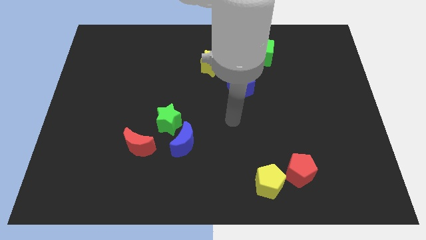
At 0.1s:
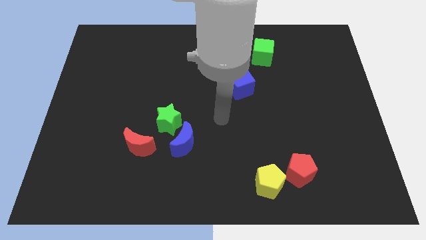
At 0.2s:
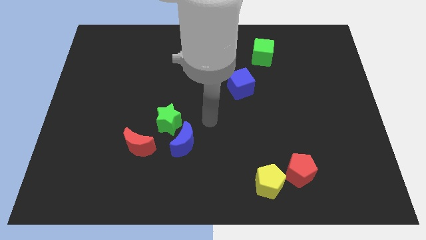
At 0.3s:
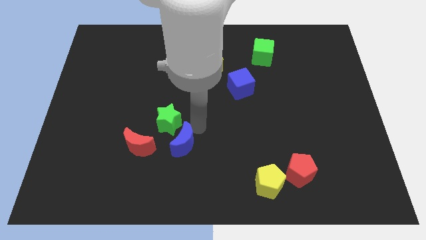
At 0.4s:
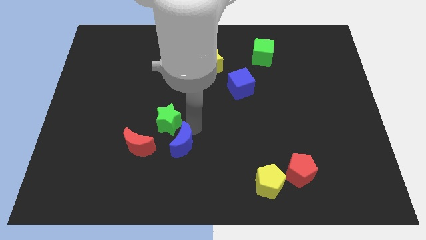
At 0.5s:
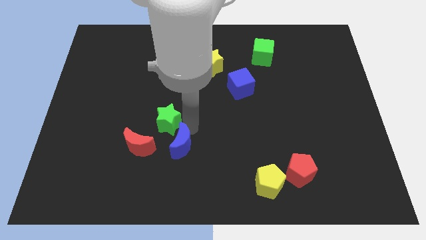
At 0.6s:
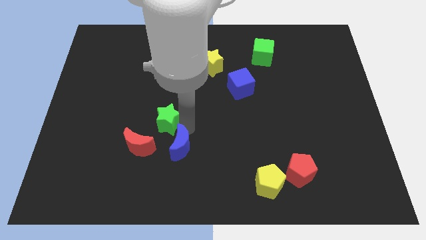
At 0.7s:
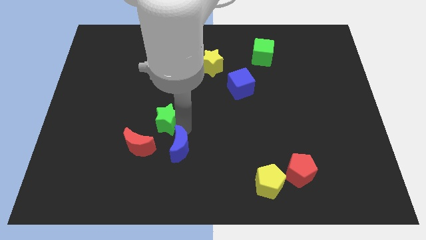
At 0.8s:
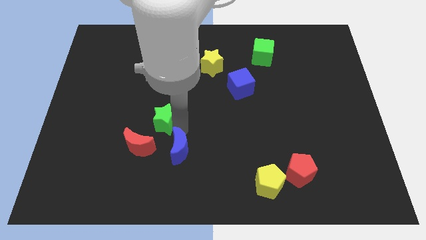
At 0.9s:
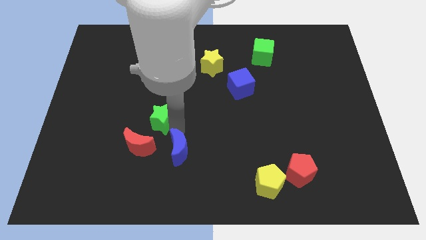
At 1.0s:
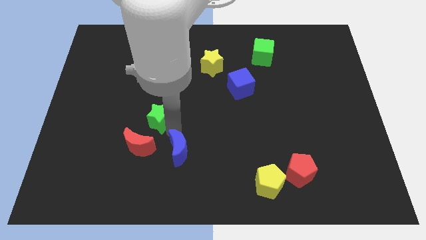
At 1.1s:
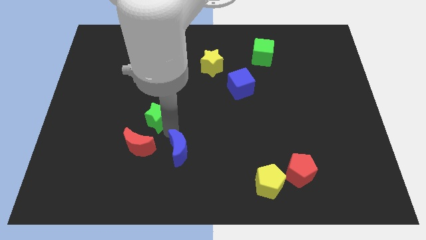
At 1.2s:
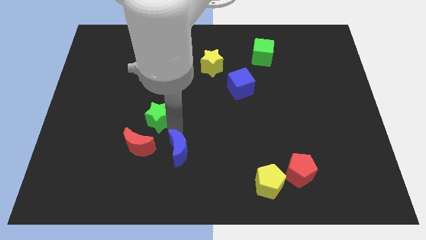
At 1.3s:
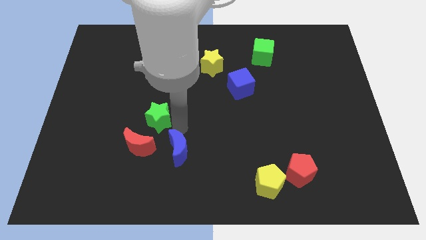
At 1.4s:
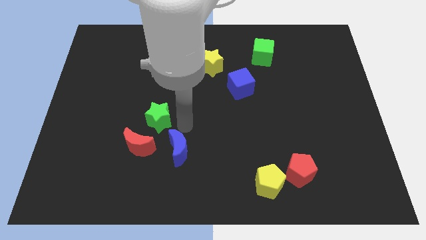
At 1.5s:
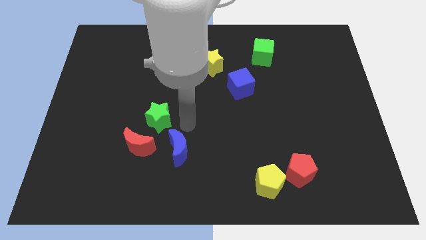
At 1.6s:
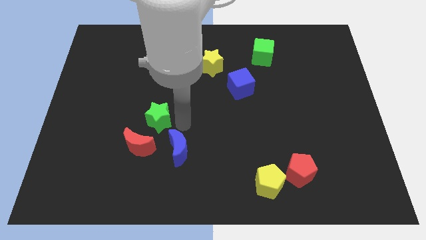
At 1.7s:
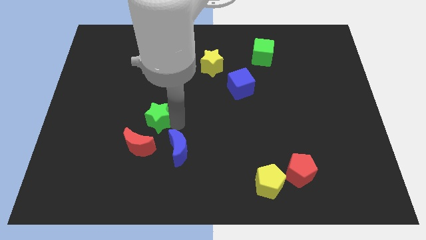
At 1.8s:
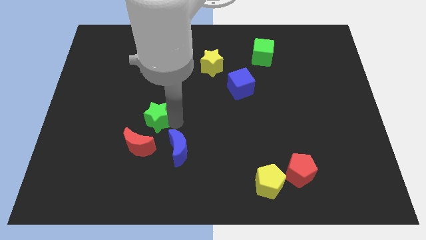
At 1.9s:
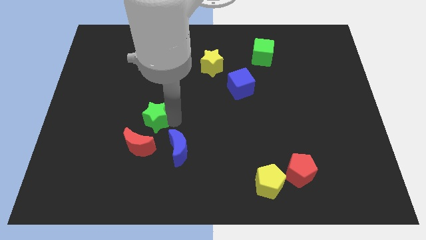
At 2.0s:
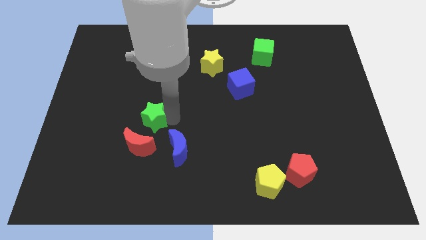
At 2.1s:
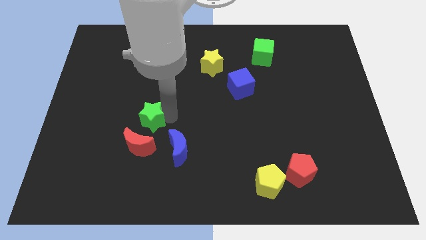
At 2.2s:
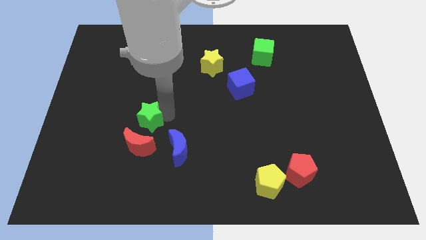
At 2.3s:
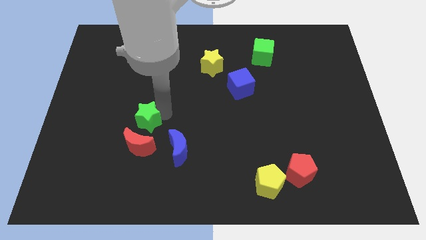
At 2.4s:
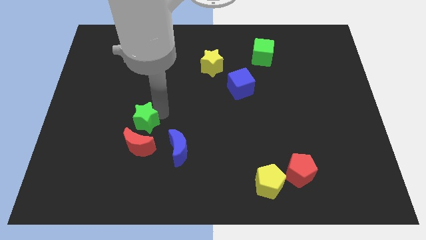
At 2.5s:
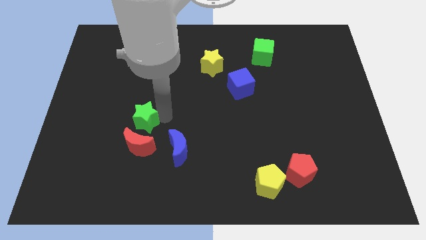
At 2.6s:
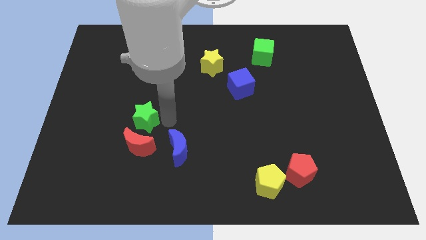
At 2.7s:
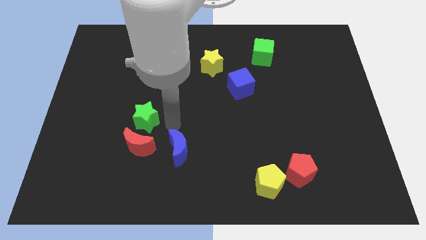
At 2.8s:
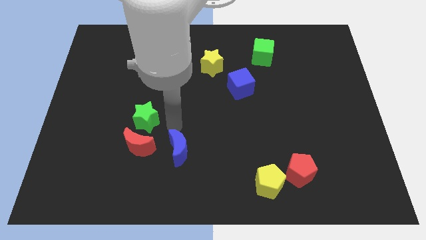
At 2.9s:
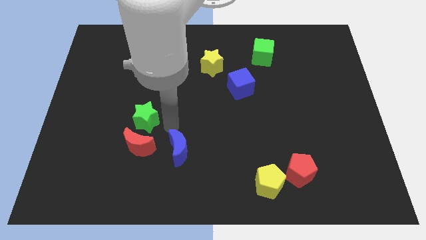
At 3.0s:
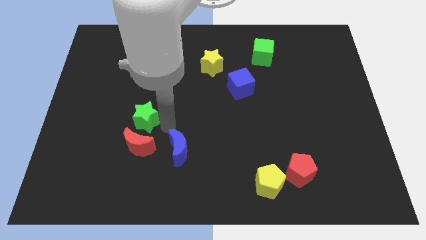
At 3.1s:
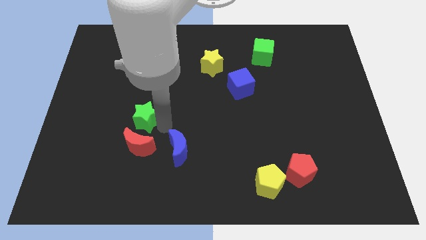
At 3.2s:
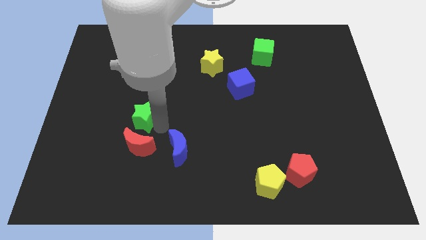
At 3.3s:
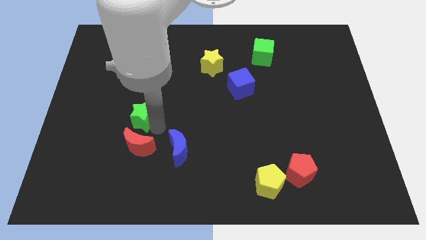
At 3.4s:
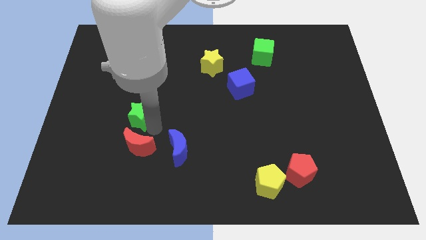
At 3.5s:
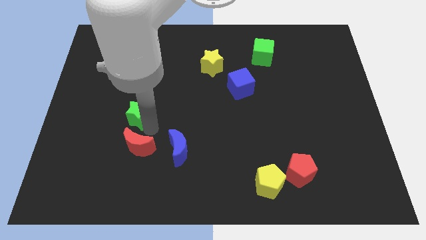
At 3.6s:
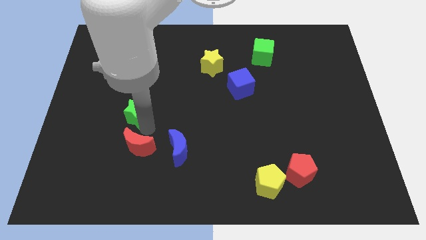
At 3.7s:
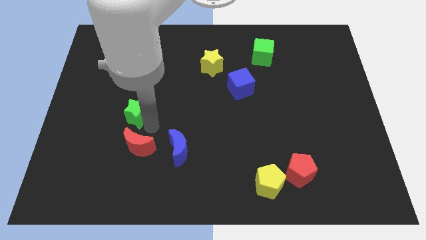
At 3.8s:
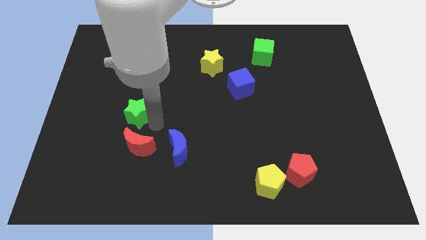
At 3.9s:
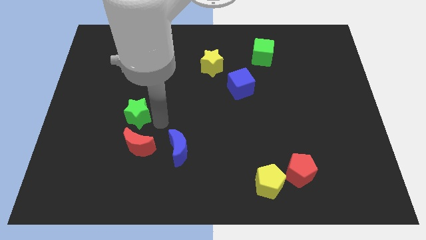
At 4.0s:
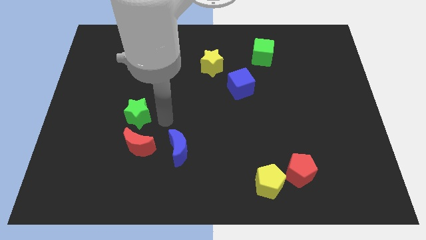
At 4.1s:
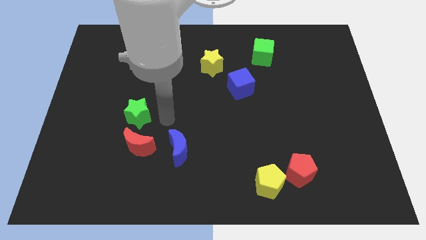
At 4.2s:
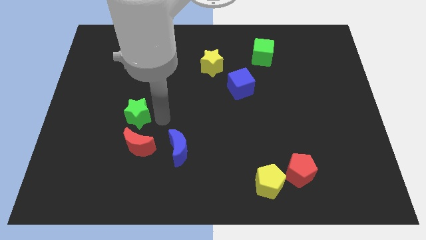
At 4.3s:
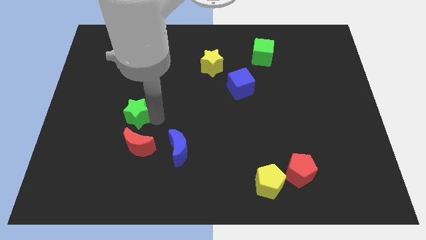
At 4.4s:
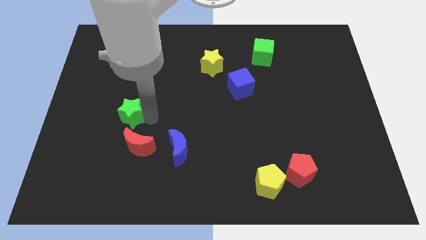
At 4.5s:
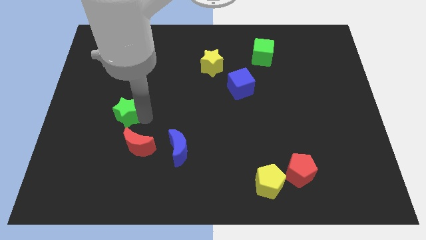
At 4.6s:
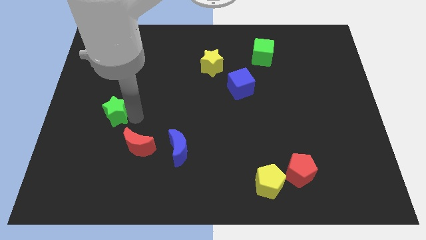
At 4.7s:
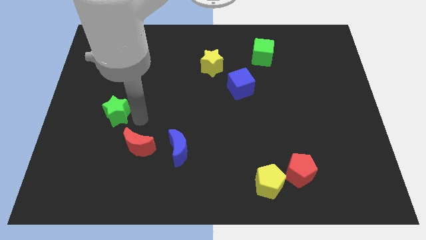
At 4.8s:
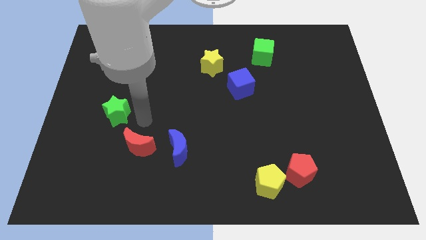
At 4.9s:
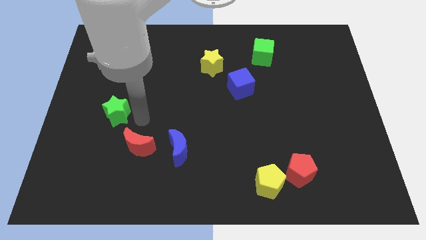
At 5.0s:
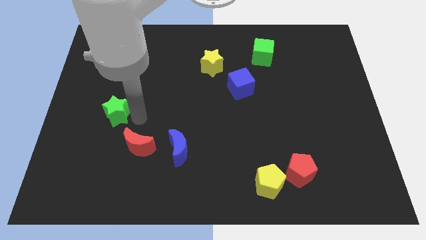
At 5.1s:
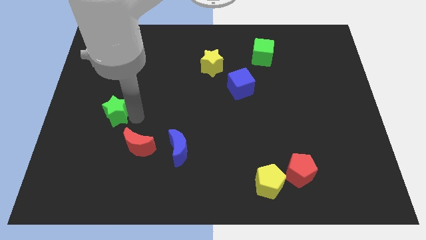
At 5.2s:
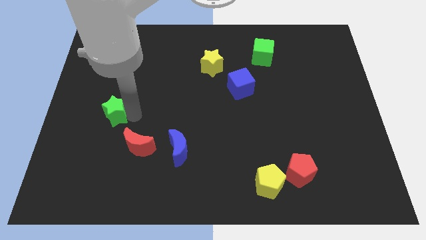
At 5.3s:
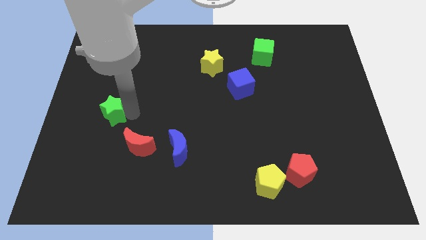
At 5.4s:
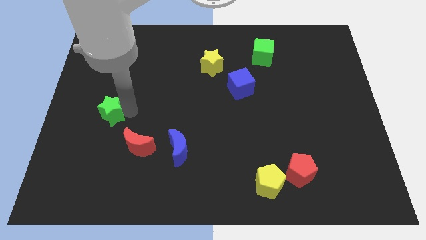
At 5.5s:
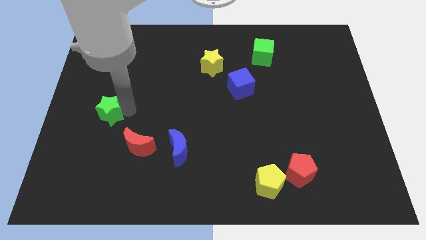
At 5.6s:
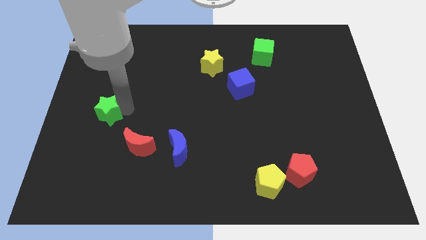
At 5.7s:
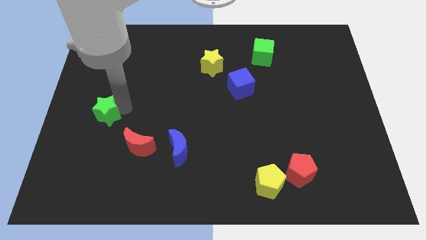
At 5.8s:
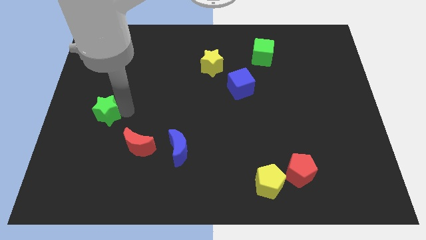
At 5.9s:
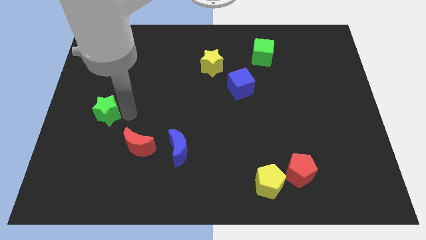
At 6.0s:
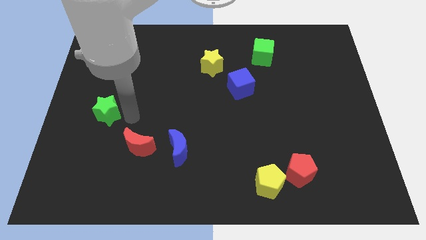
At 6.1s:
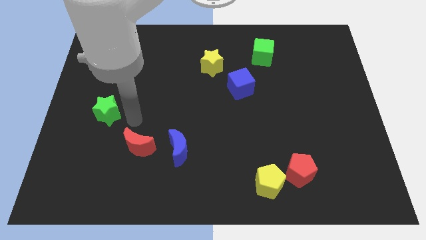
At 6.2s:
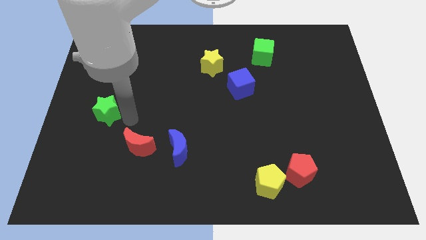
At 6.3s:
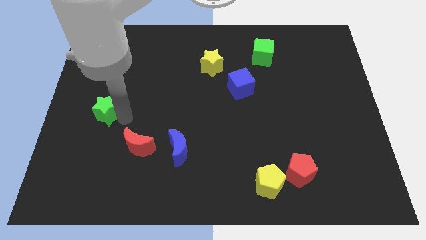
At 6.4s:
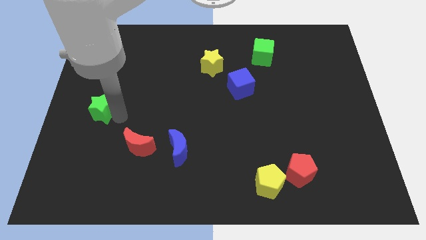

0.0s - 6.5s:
push the green star to the center left

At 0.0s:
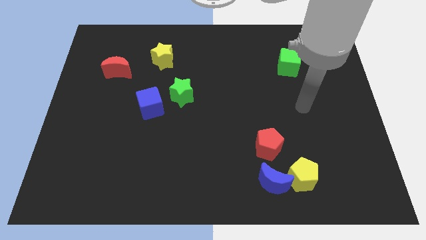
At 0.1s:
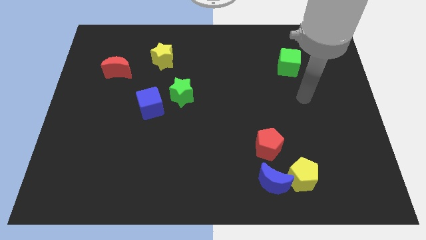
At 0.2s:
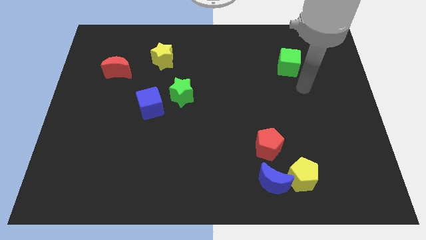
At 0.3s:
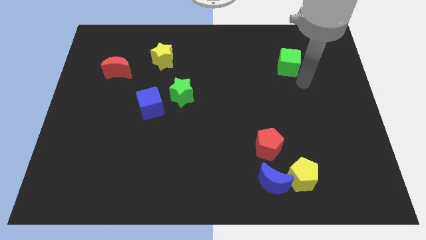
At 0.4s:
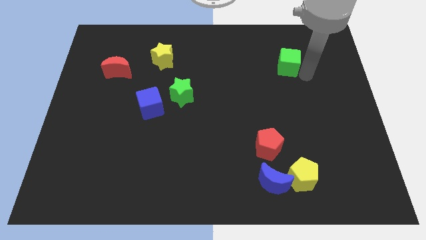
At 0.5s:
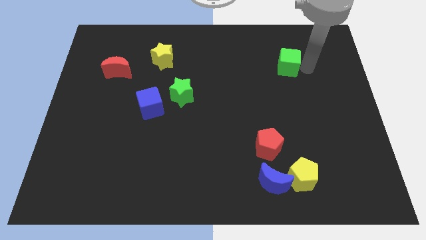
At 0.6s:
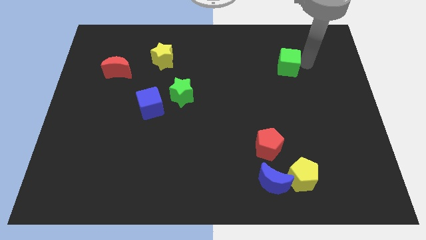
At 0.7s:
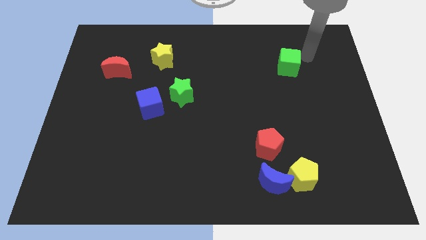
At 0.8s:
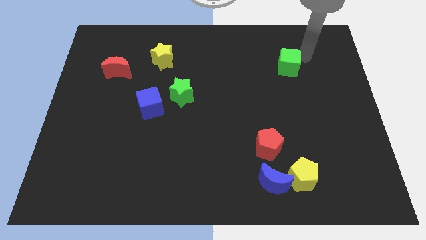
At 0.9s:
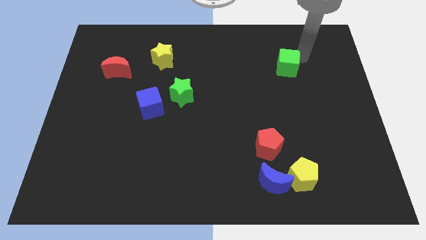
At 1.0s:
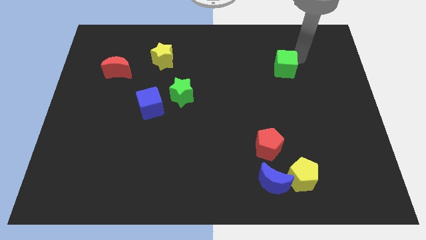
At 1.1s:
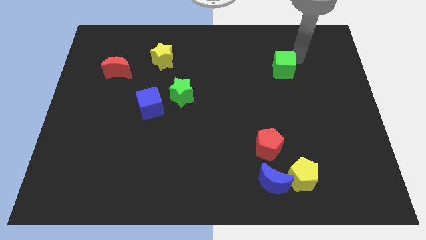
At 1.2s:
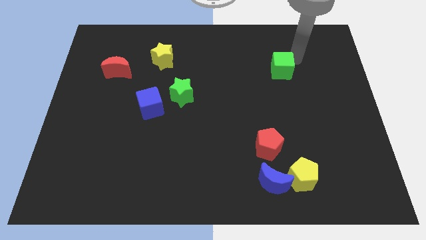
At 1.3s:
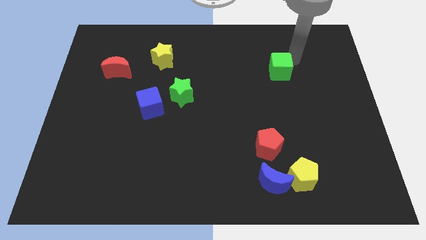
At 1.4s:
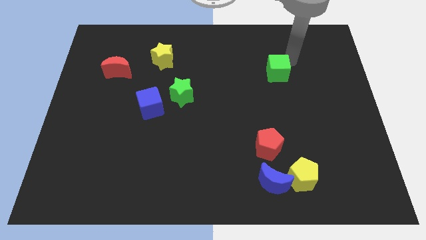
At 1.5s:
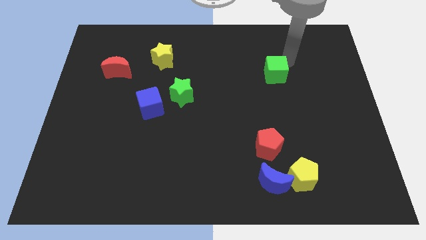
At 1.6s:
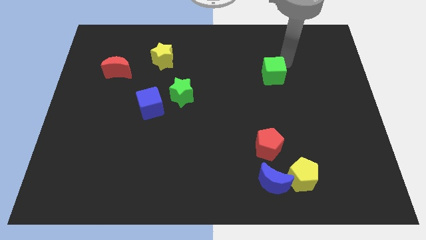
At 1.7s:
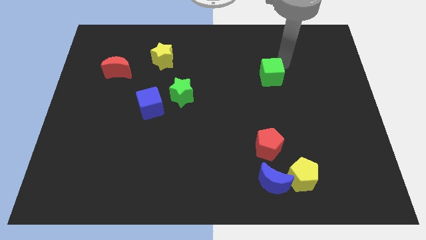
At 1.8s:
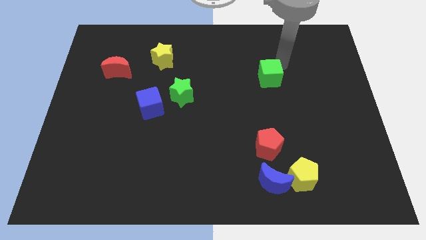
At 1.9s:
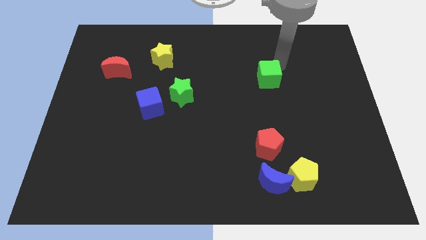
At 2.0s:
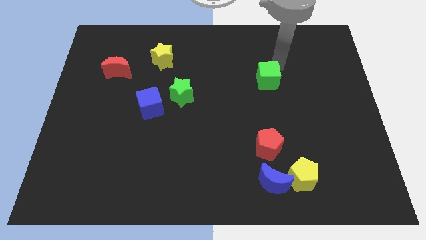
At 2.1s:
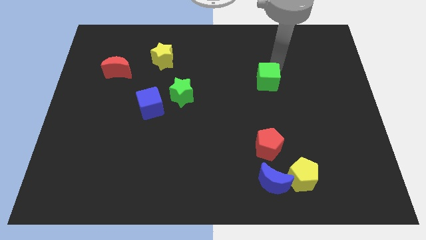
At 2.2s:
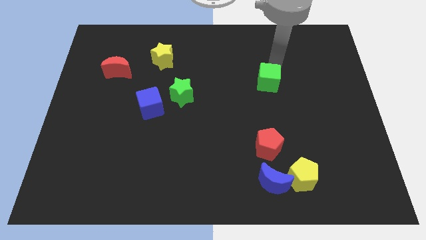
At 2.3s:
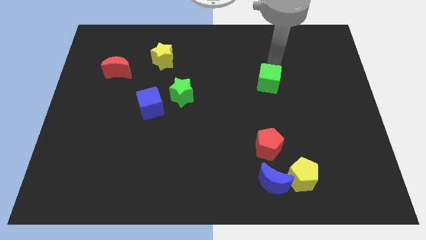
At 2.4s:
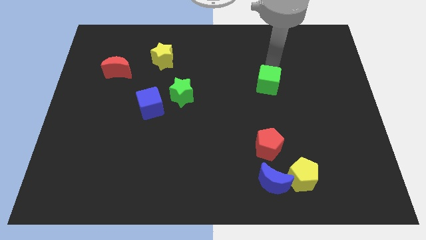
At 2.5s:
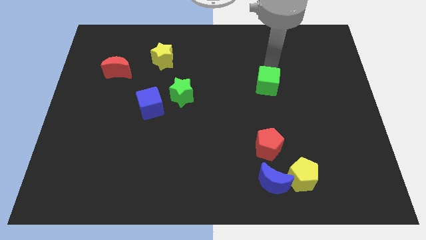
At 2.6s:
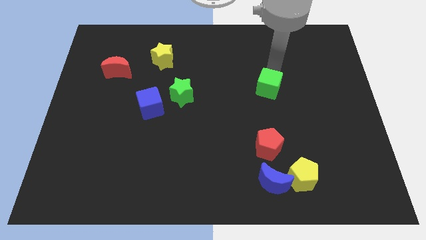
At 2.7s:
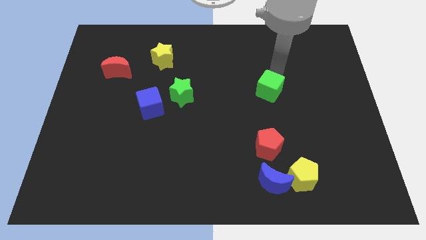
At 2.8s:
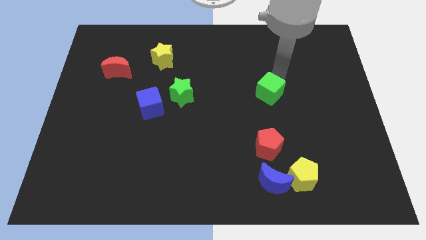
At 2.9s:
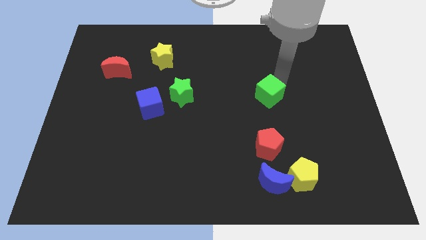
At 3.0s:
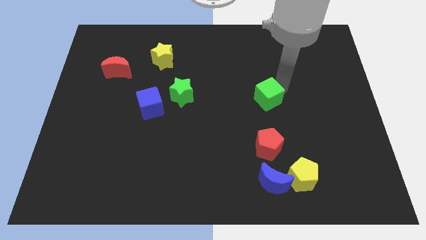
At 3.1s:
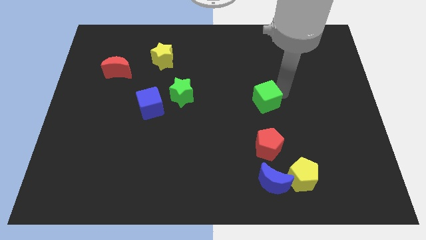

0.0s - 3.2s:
push the green cube to the middle
